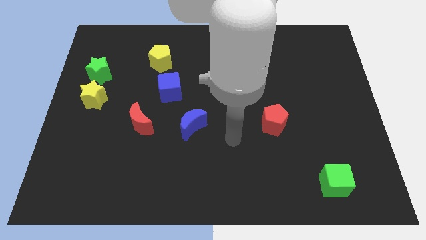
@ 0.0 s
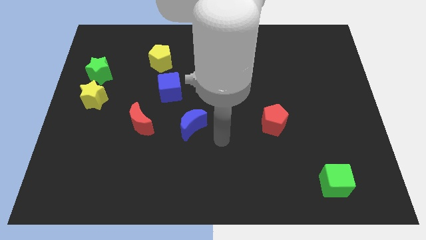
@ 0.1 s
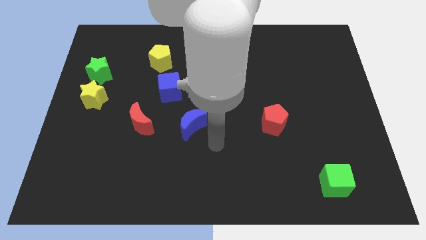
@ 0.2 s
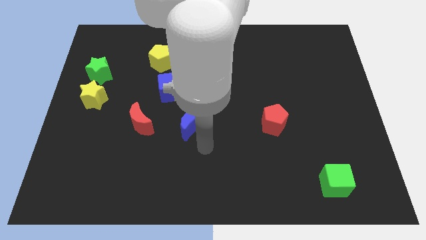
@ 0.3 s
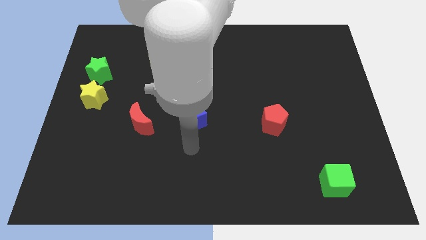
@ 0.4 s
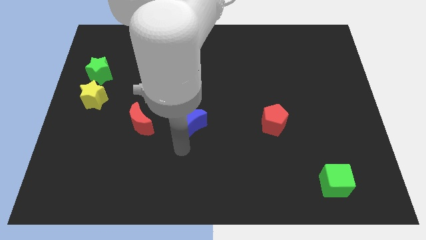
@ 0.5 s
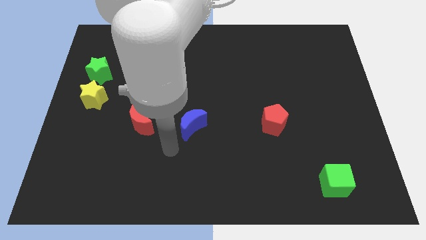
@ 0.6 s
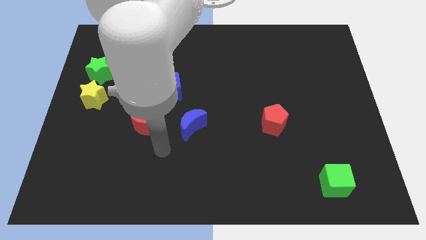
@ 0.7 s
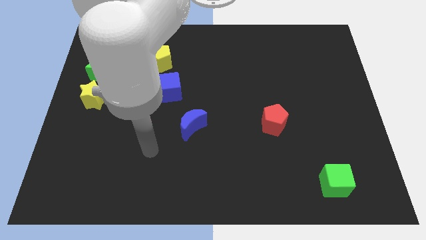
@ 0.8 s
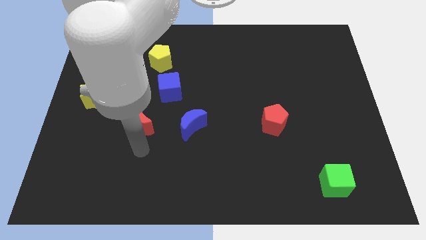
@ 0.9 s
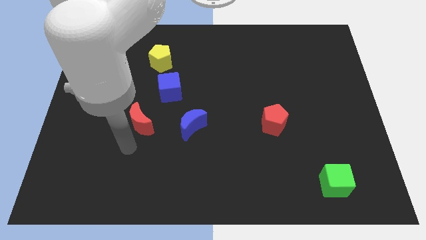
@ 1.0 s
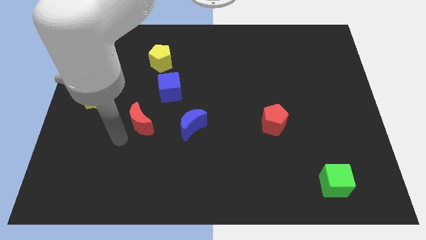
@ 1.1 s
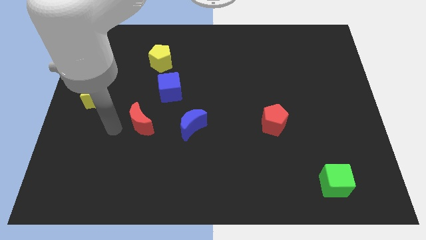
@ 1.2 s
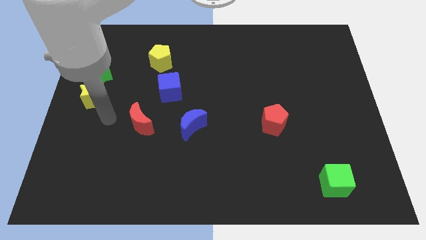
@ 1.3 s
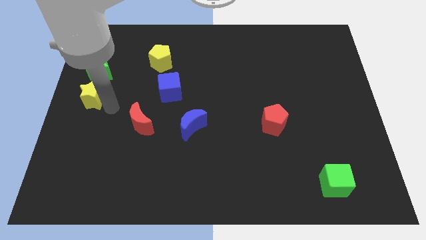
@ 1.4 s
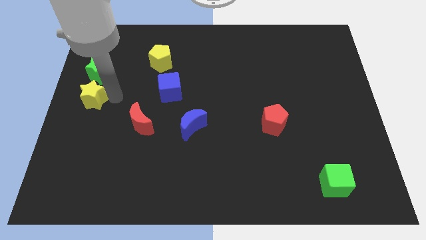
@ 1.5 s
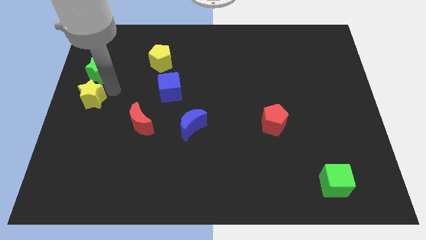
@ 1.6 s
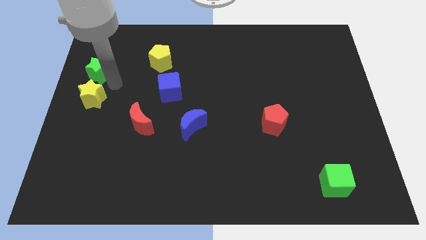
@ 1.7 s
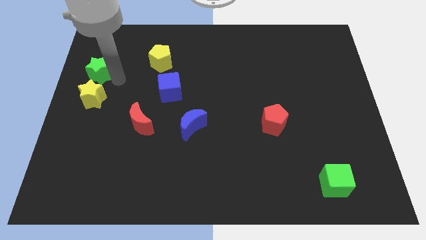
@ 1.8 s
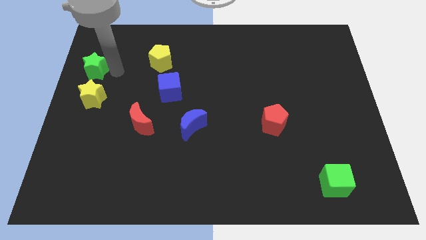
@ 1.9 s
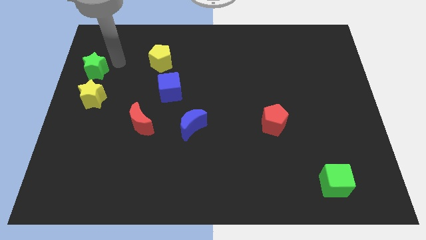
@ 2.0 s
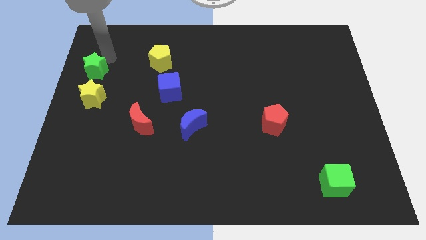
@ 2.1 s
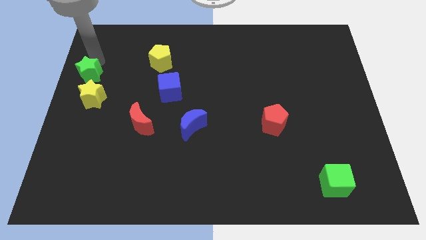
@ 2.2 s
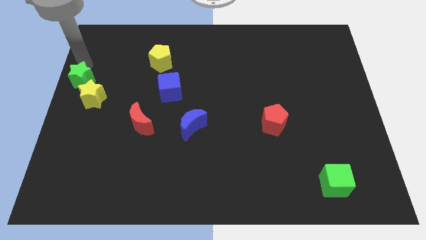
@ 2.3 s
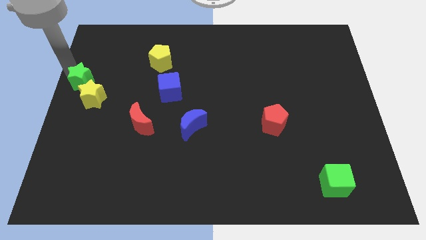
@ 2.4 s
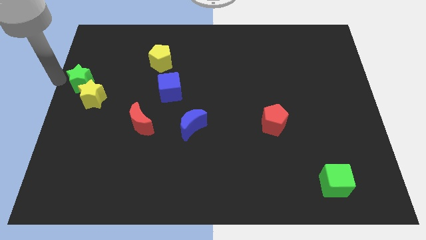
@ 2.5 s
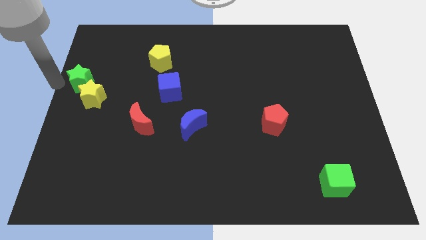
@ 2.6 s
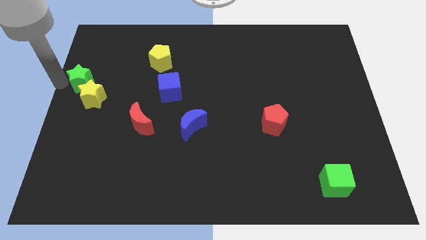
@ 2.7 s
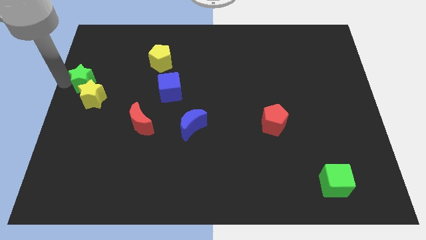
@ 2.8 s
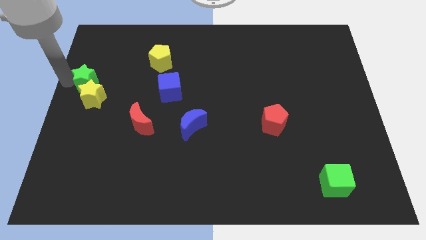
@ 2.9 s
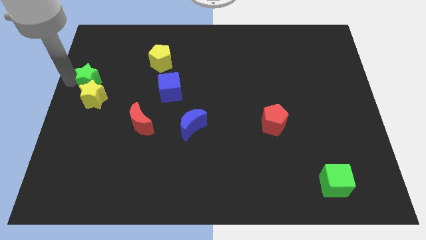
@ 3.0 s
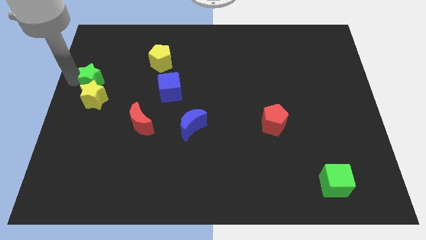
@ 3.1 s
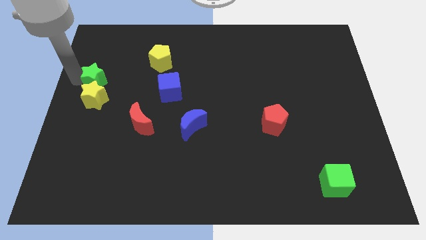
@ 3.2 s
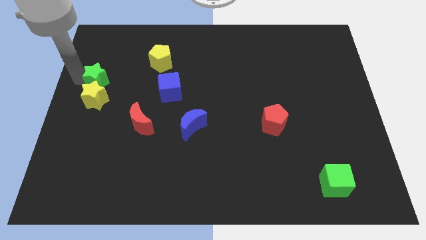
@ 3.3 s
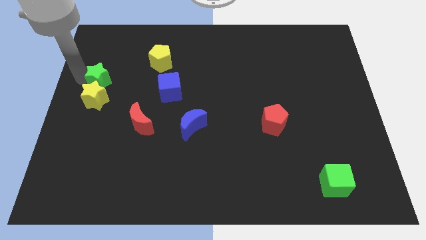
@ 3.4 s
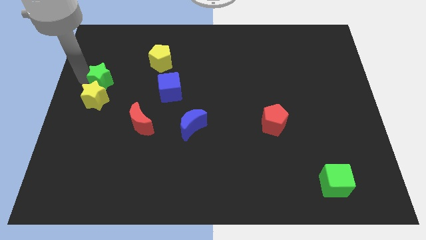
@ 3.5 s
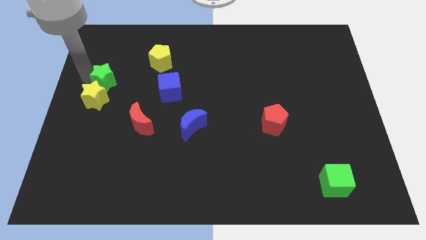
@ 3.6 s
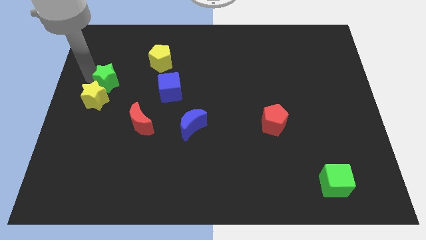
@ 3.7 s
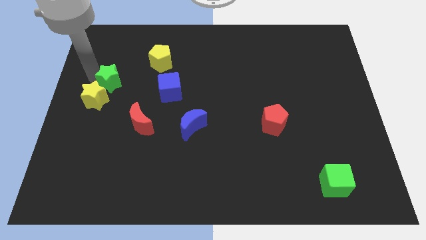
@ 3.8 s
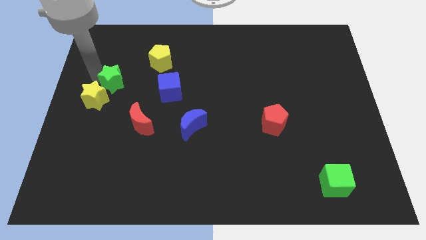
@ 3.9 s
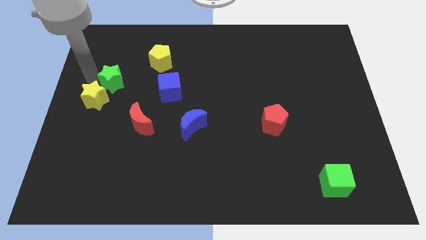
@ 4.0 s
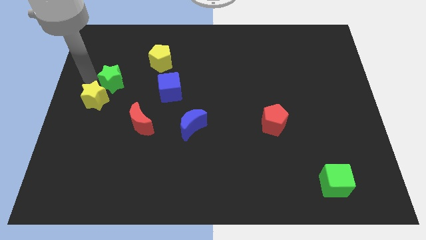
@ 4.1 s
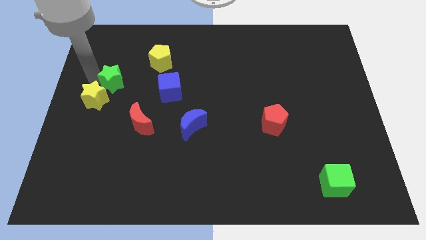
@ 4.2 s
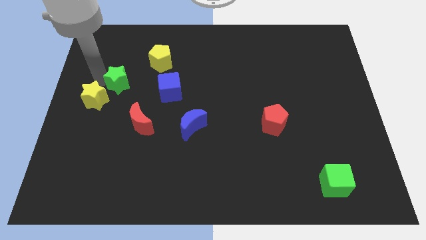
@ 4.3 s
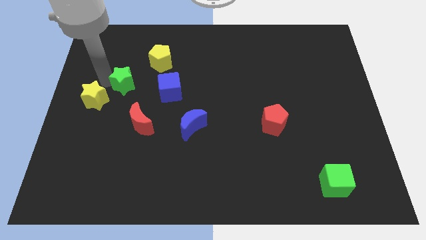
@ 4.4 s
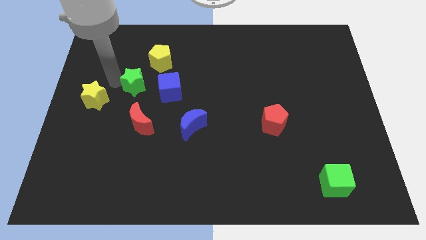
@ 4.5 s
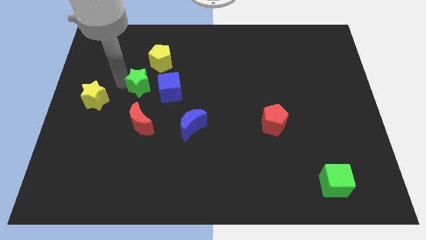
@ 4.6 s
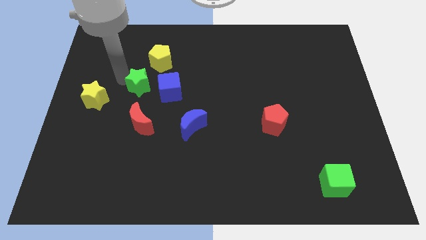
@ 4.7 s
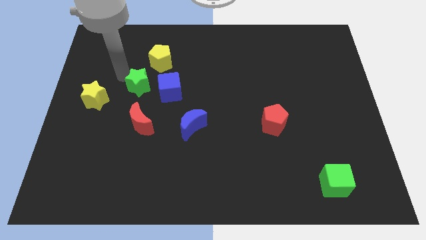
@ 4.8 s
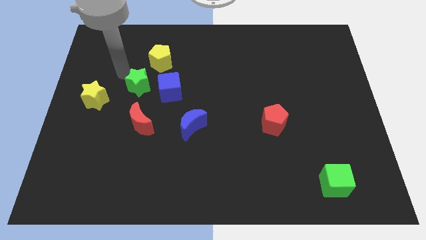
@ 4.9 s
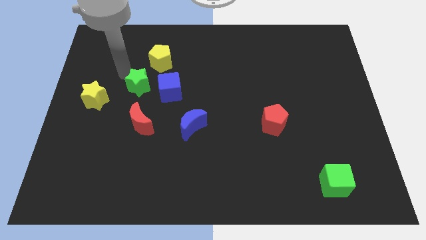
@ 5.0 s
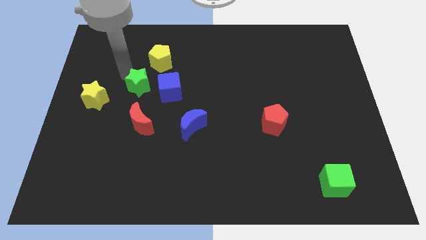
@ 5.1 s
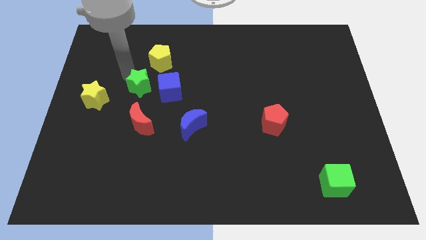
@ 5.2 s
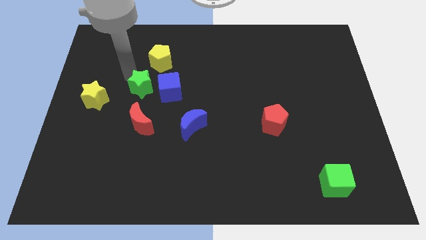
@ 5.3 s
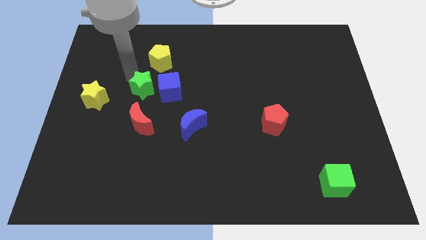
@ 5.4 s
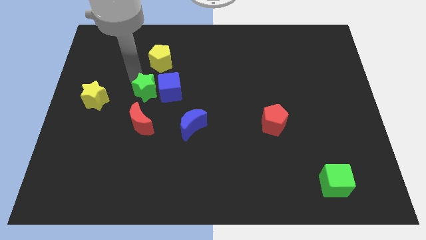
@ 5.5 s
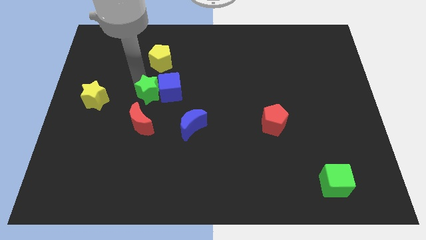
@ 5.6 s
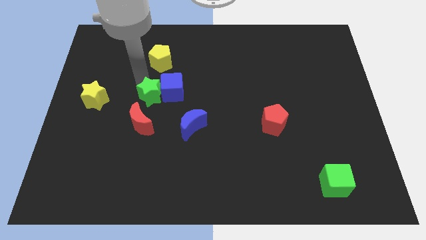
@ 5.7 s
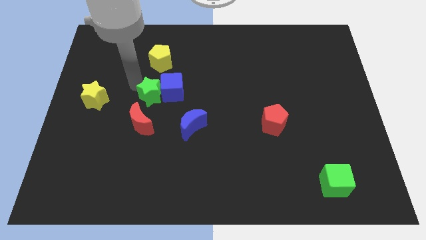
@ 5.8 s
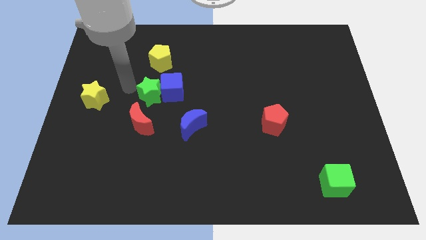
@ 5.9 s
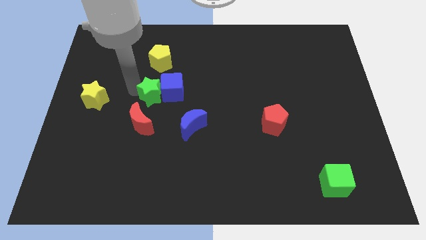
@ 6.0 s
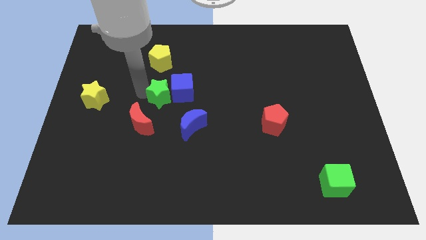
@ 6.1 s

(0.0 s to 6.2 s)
move the green star to the center of the board
